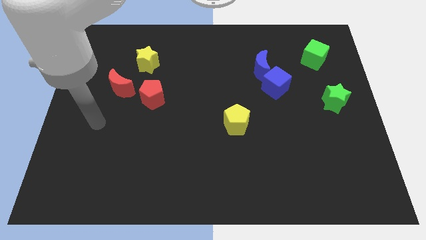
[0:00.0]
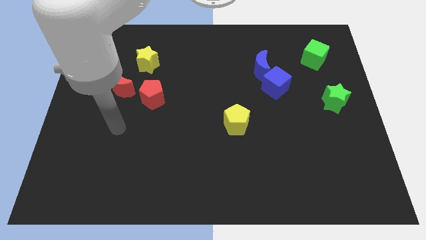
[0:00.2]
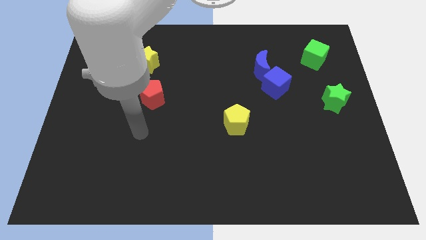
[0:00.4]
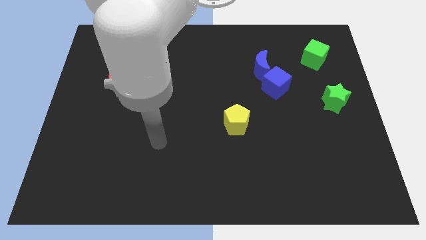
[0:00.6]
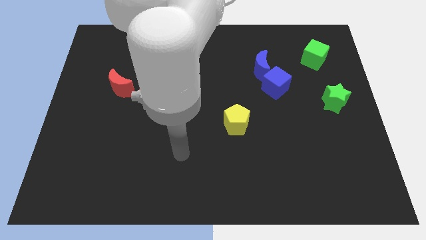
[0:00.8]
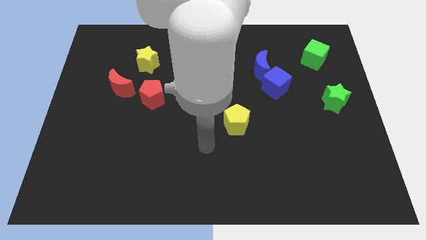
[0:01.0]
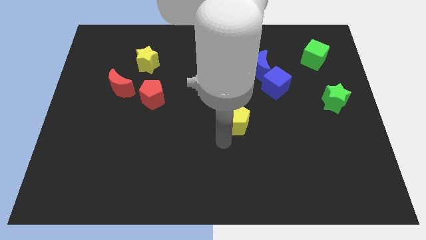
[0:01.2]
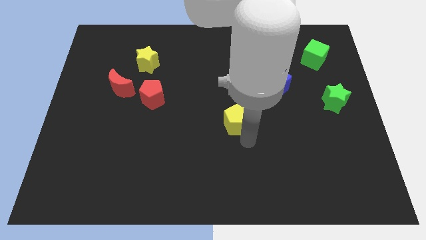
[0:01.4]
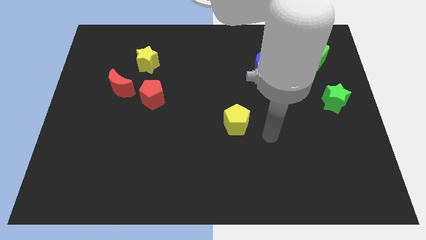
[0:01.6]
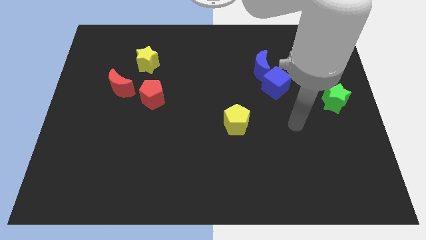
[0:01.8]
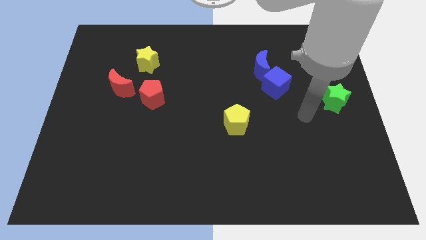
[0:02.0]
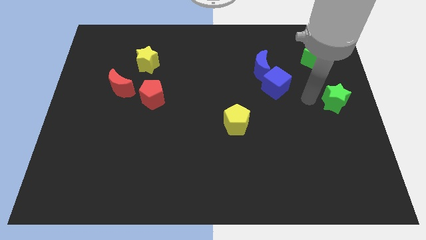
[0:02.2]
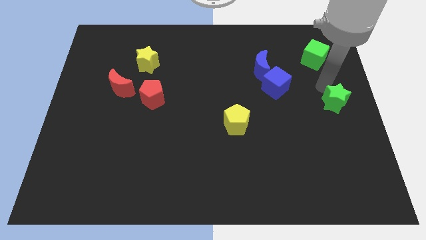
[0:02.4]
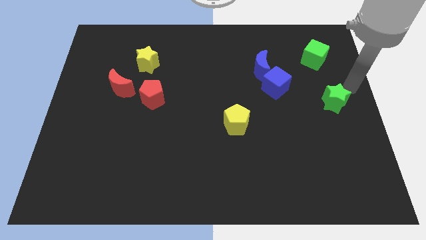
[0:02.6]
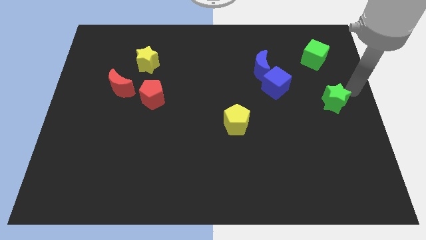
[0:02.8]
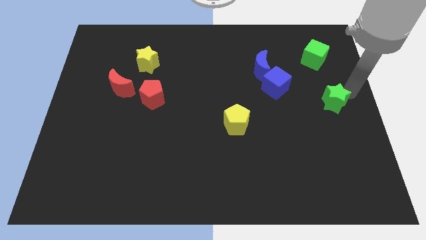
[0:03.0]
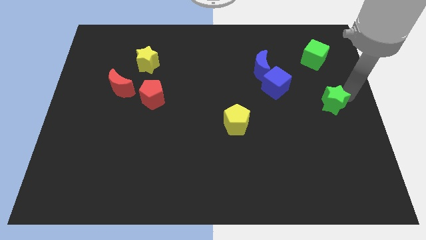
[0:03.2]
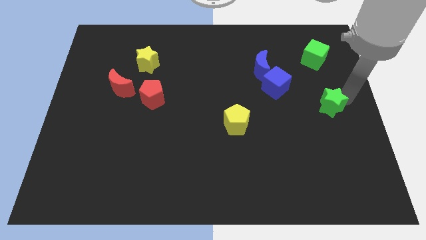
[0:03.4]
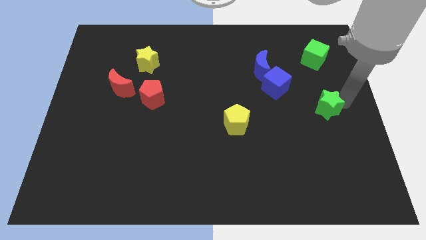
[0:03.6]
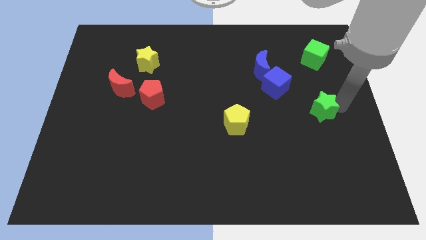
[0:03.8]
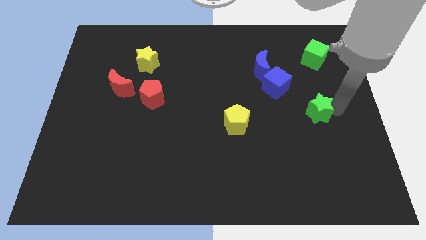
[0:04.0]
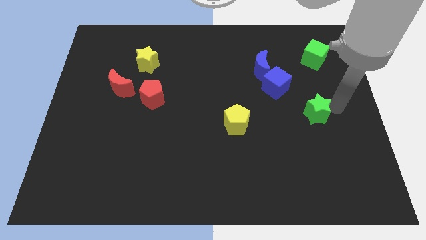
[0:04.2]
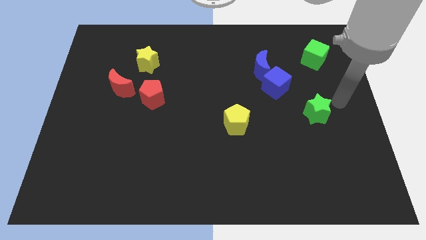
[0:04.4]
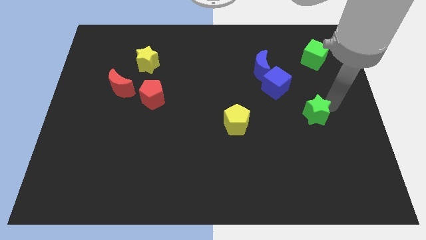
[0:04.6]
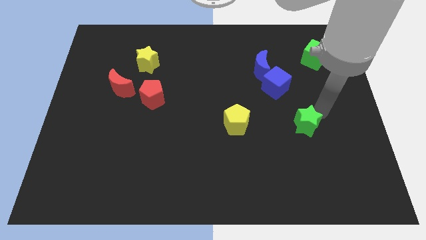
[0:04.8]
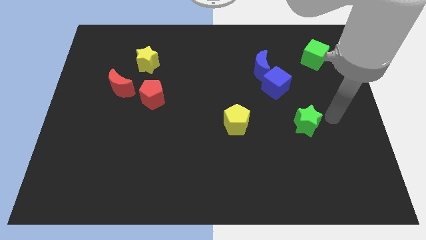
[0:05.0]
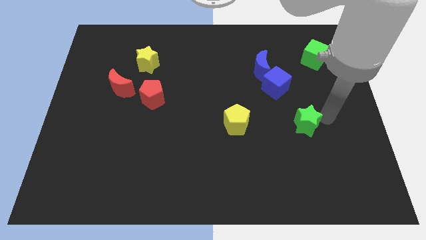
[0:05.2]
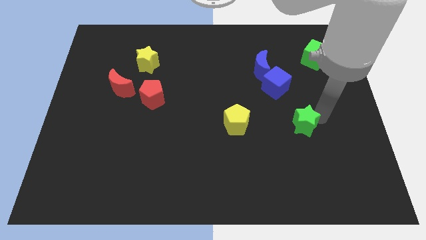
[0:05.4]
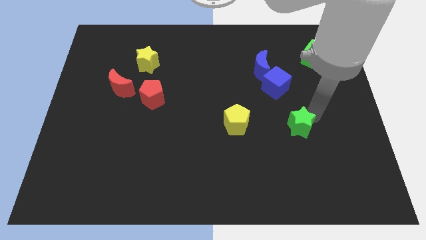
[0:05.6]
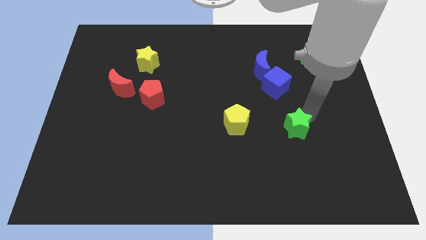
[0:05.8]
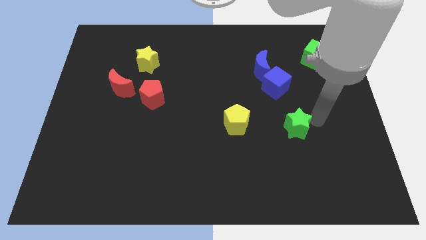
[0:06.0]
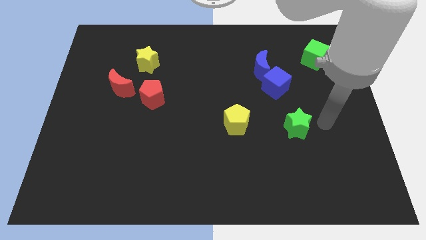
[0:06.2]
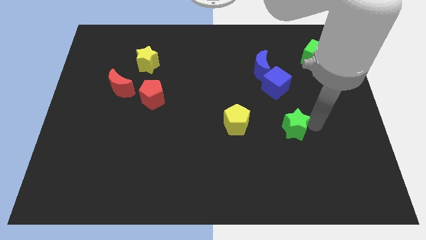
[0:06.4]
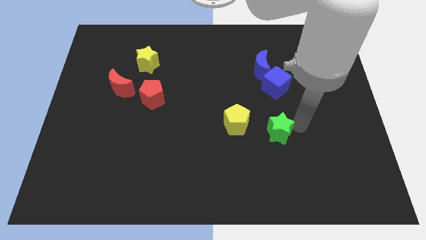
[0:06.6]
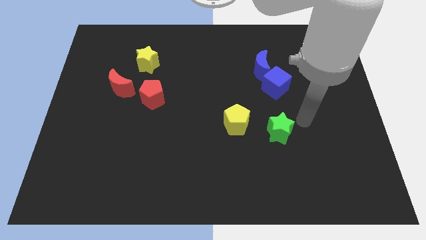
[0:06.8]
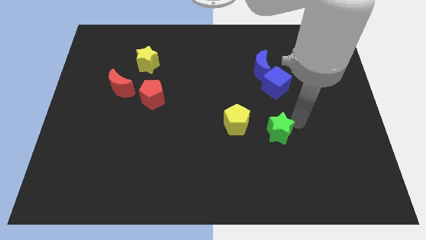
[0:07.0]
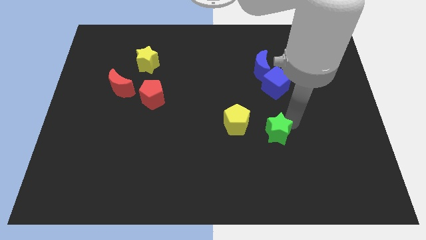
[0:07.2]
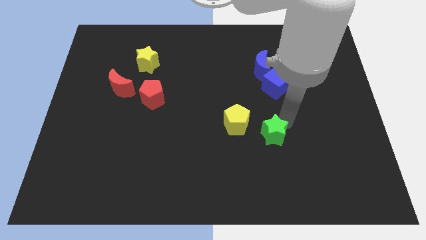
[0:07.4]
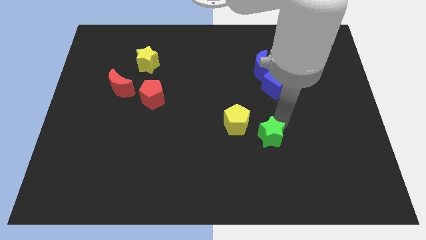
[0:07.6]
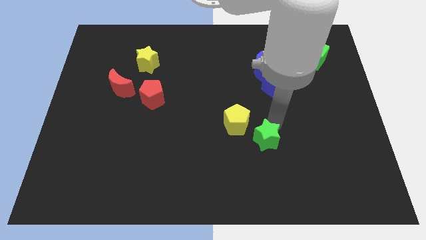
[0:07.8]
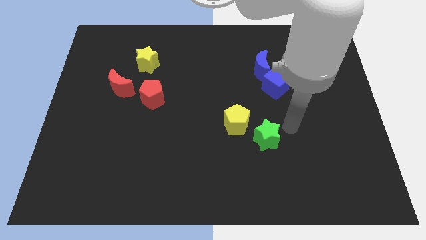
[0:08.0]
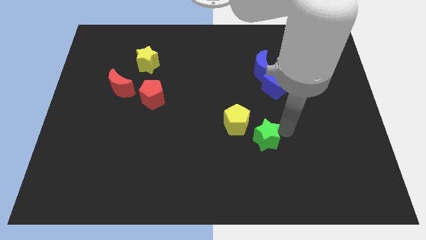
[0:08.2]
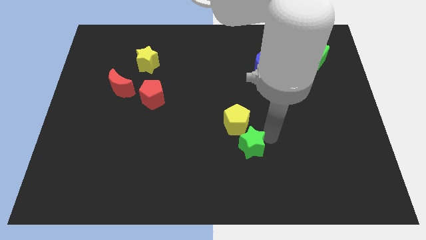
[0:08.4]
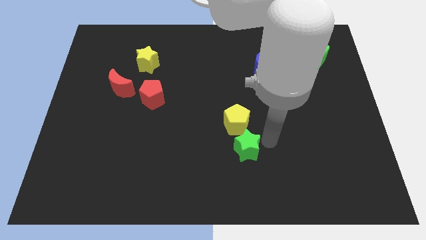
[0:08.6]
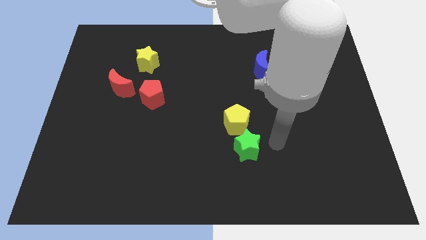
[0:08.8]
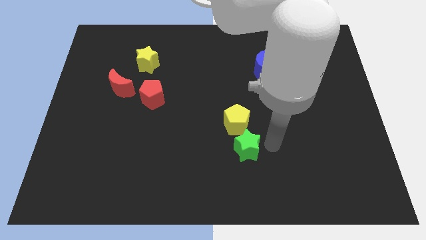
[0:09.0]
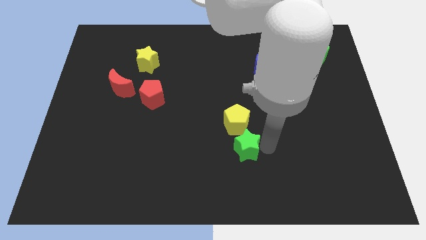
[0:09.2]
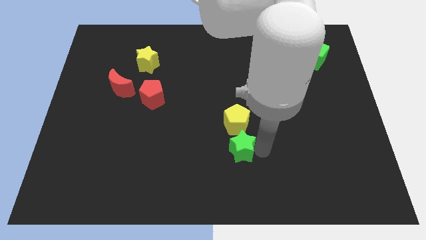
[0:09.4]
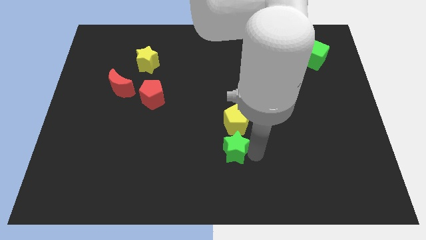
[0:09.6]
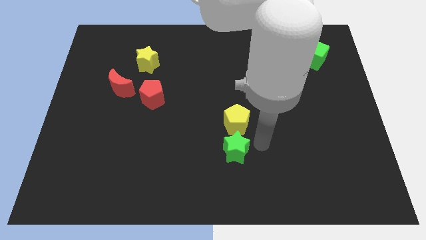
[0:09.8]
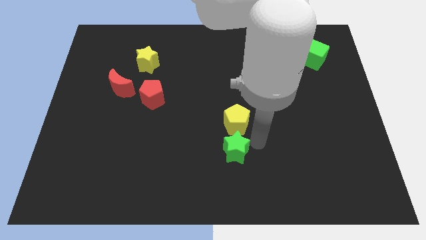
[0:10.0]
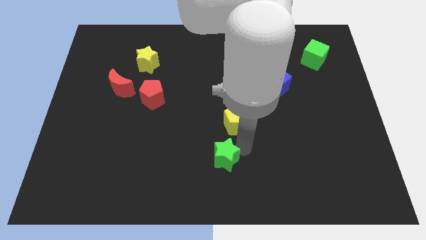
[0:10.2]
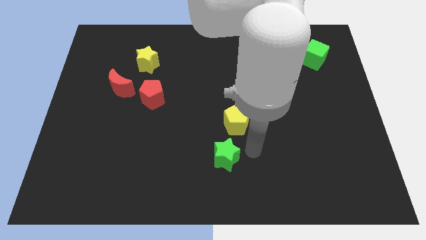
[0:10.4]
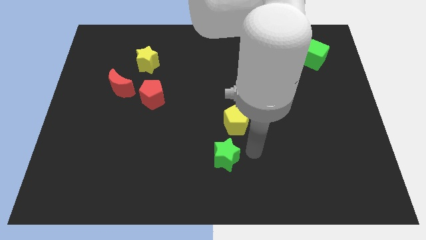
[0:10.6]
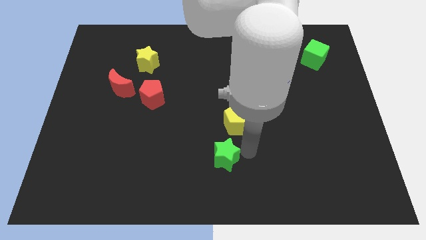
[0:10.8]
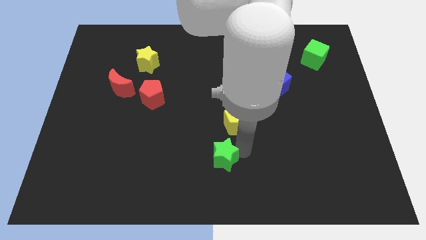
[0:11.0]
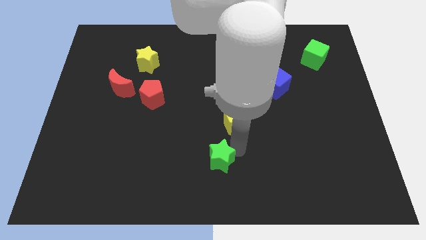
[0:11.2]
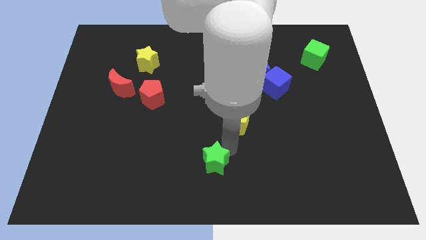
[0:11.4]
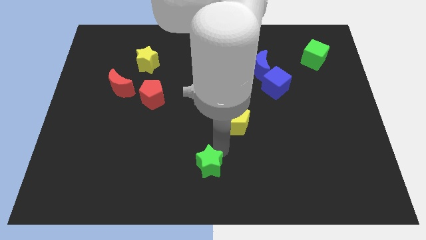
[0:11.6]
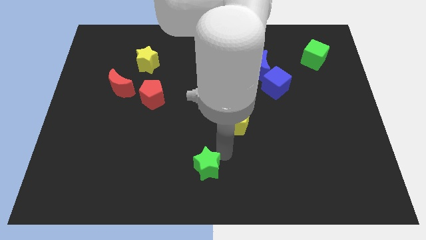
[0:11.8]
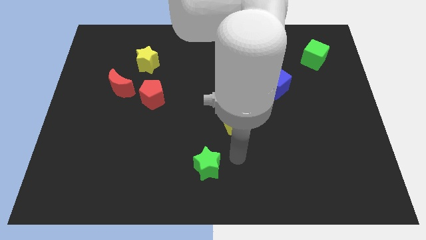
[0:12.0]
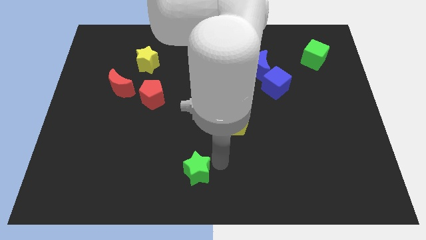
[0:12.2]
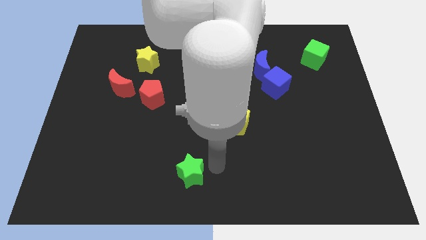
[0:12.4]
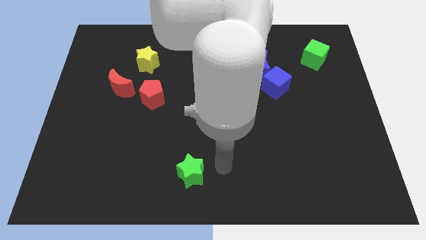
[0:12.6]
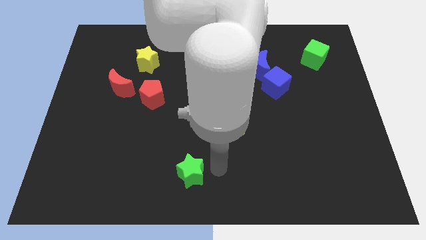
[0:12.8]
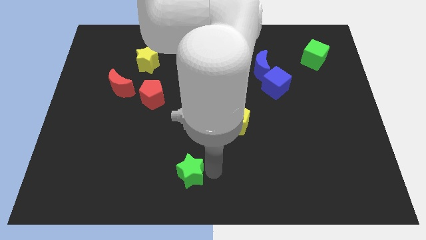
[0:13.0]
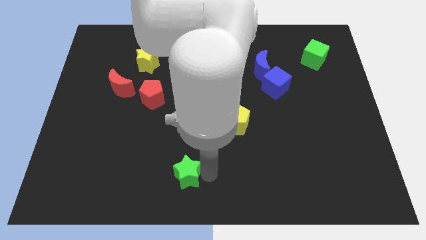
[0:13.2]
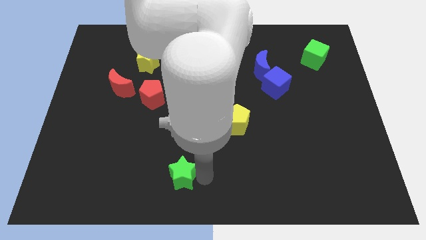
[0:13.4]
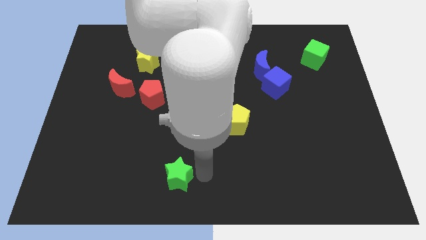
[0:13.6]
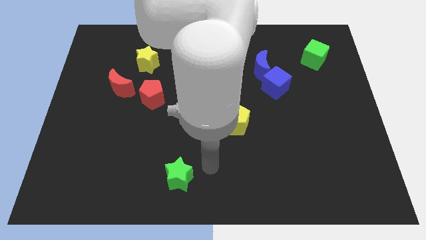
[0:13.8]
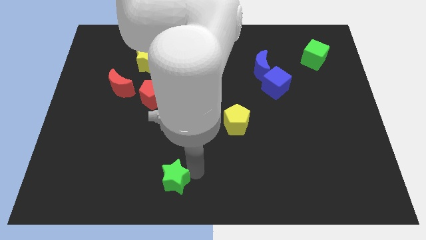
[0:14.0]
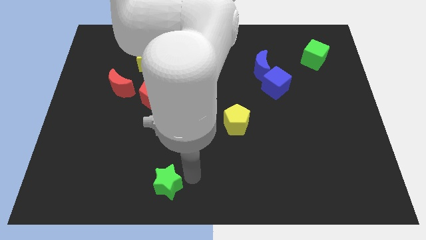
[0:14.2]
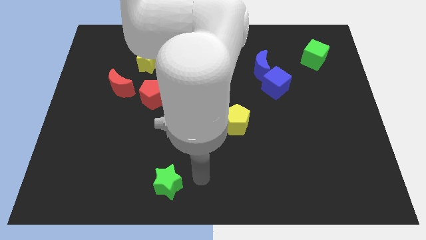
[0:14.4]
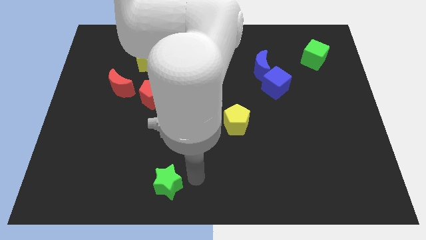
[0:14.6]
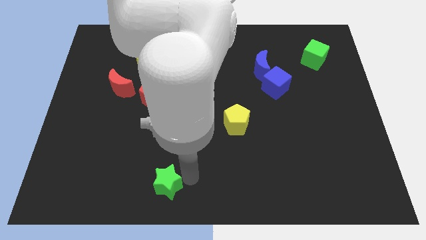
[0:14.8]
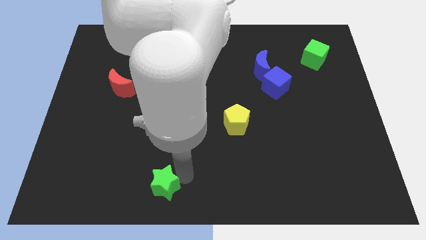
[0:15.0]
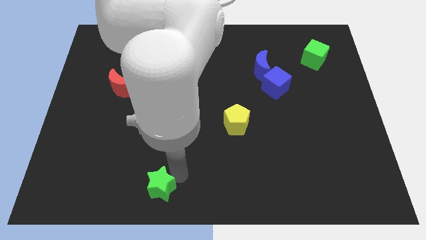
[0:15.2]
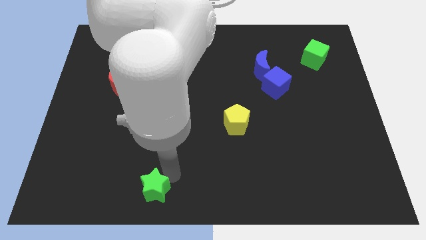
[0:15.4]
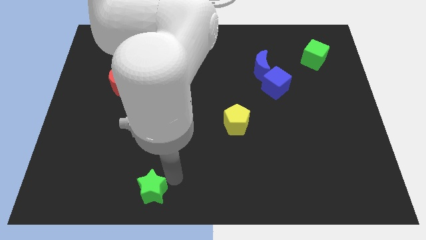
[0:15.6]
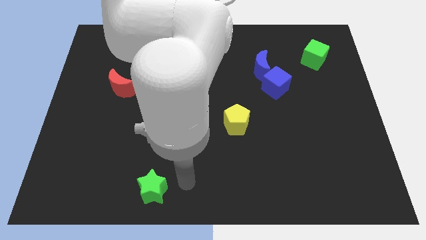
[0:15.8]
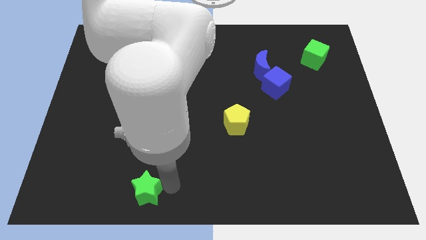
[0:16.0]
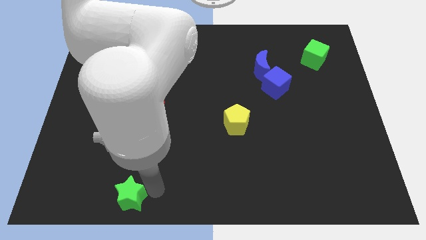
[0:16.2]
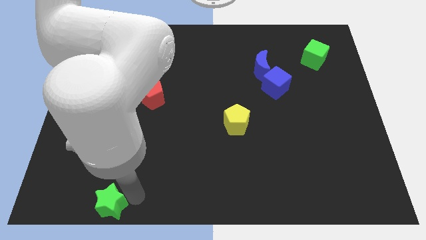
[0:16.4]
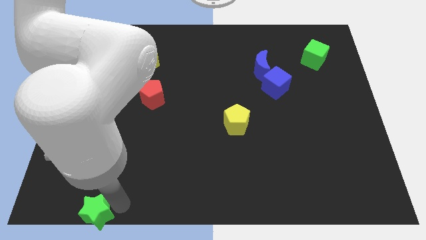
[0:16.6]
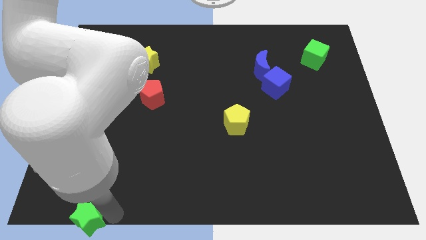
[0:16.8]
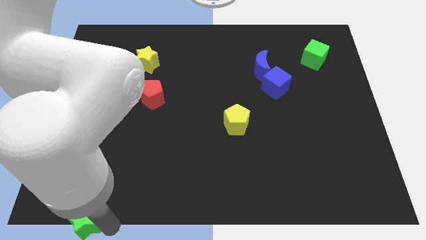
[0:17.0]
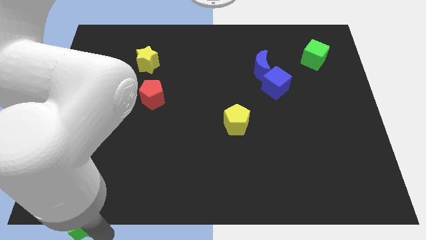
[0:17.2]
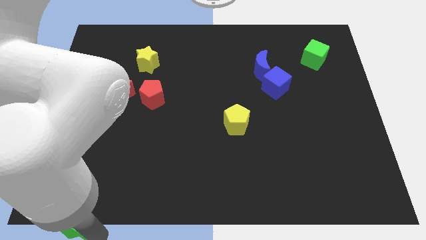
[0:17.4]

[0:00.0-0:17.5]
push the green star to the bottom left
